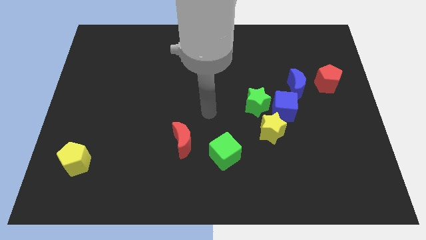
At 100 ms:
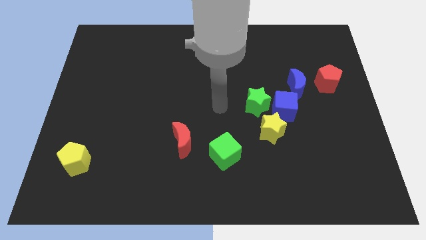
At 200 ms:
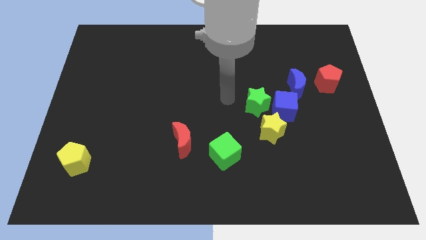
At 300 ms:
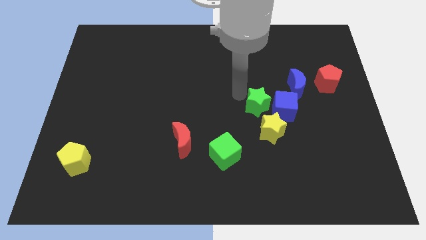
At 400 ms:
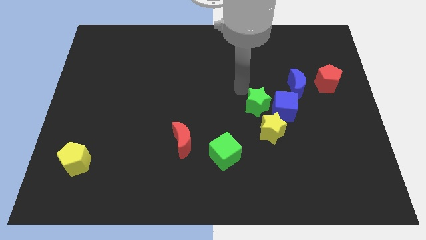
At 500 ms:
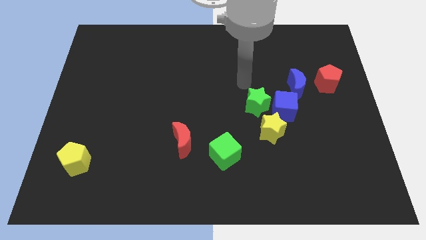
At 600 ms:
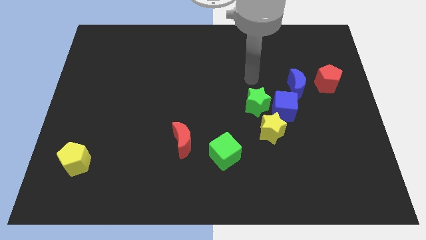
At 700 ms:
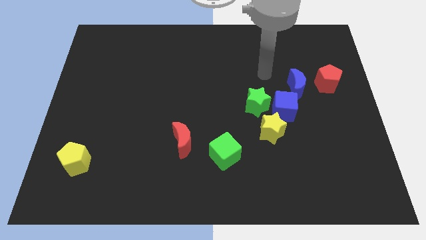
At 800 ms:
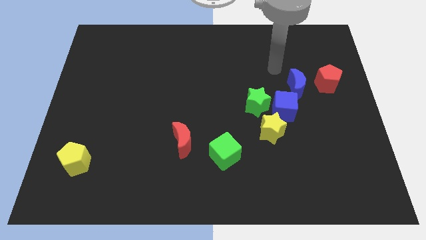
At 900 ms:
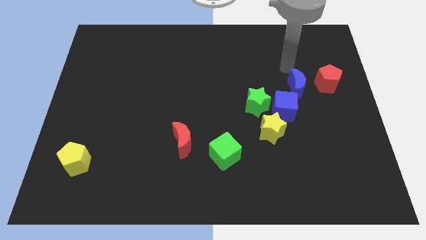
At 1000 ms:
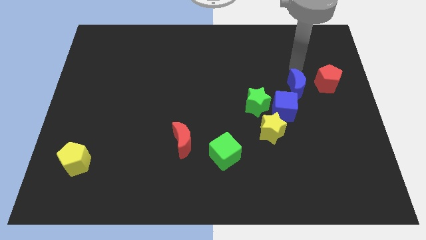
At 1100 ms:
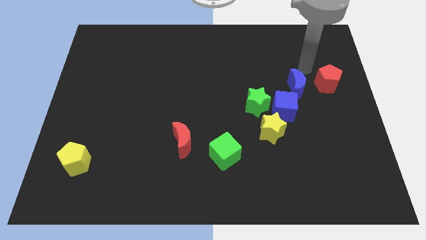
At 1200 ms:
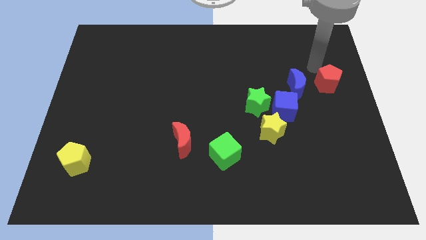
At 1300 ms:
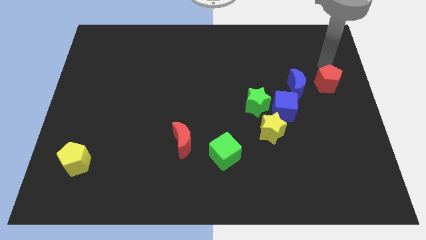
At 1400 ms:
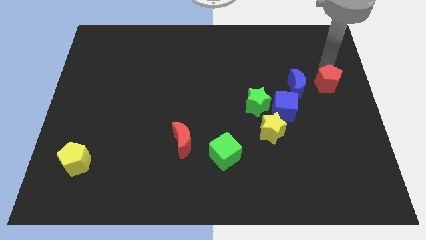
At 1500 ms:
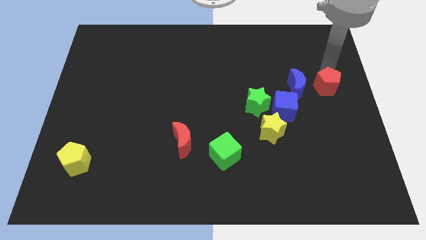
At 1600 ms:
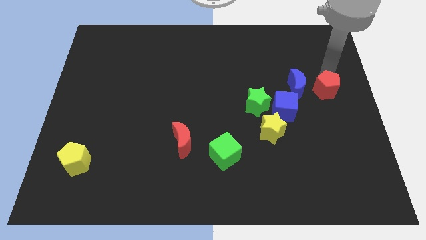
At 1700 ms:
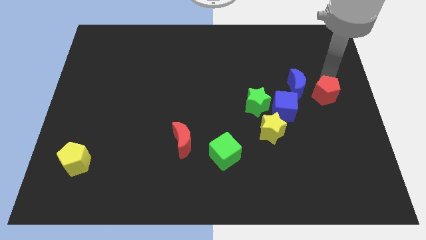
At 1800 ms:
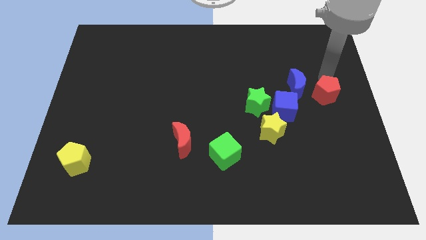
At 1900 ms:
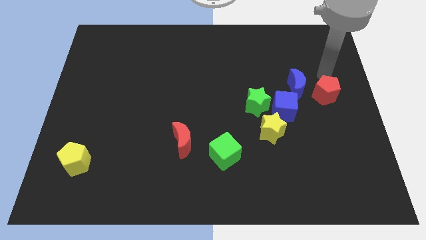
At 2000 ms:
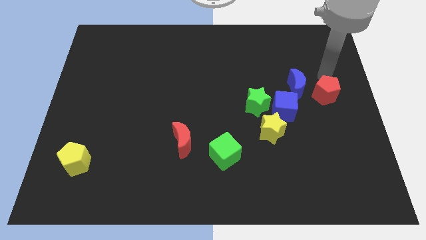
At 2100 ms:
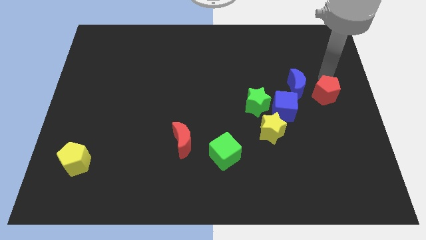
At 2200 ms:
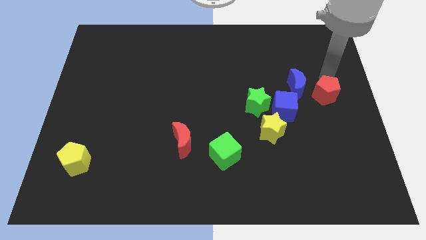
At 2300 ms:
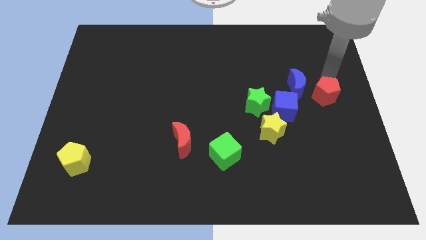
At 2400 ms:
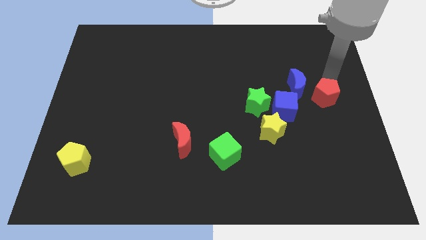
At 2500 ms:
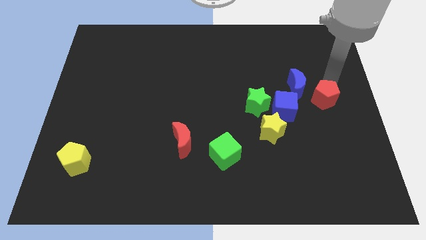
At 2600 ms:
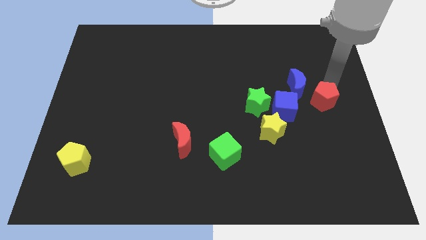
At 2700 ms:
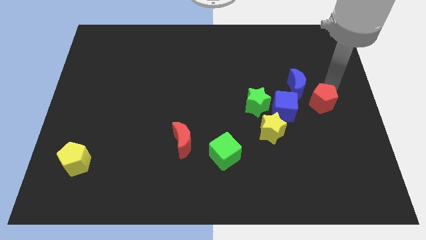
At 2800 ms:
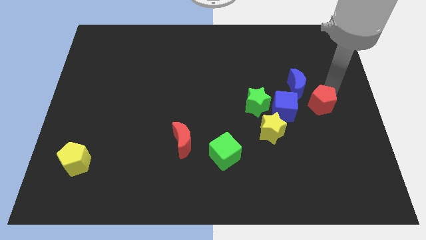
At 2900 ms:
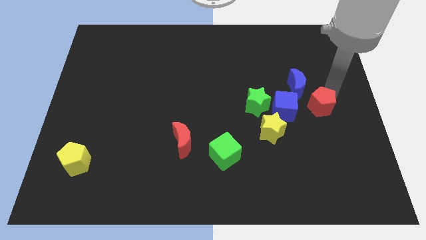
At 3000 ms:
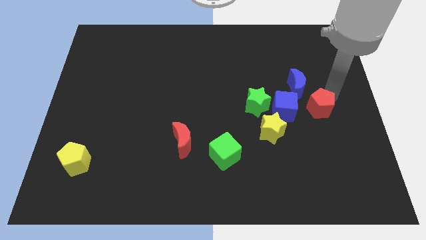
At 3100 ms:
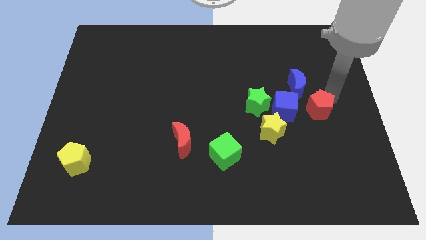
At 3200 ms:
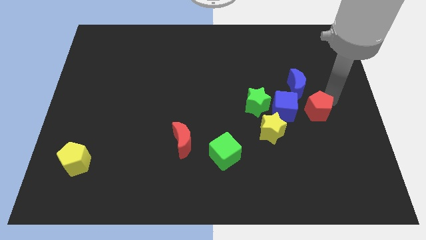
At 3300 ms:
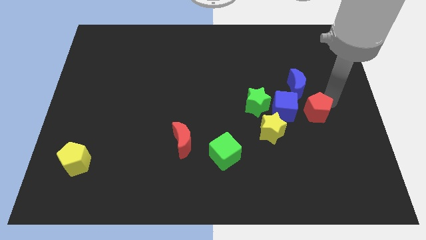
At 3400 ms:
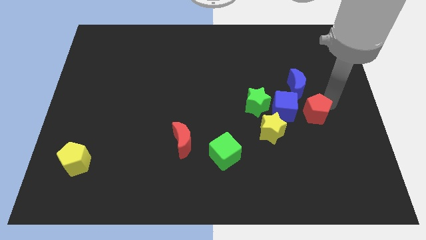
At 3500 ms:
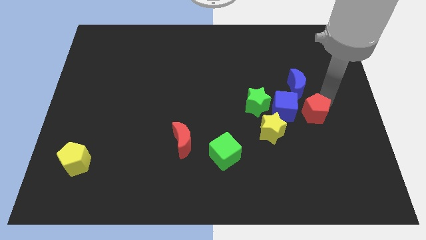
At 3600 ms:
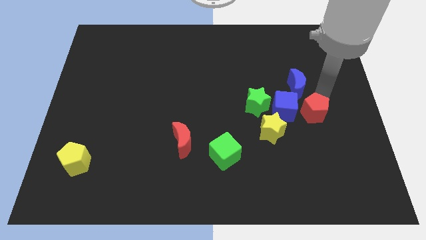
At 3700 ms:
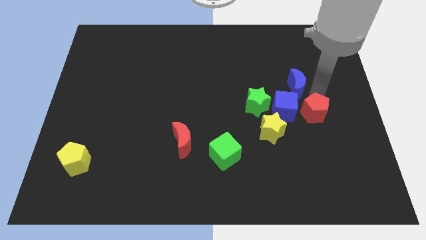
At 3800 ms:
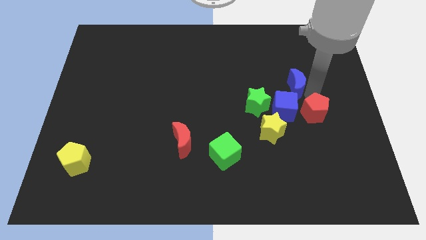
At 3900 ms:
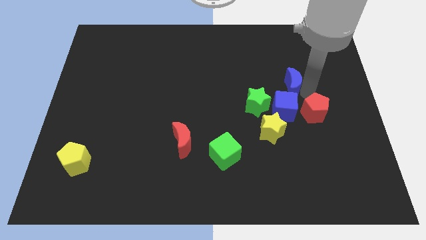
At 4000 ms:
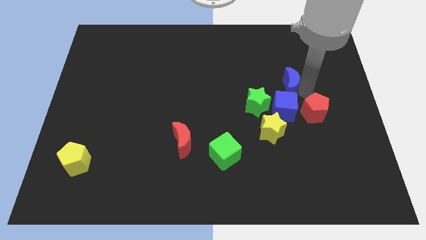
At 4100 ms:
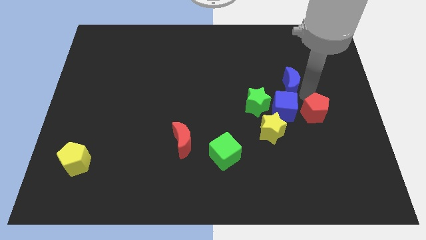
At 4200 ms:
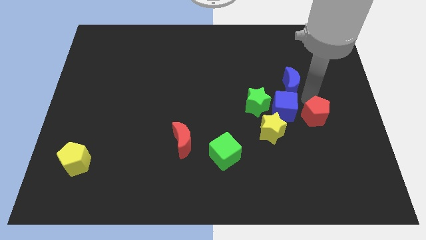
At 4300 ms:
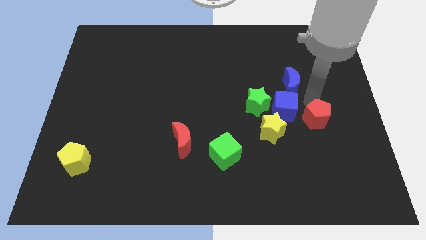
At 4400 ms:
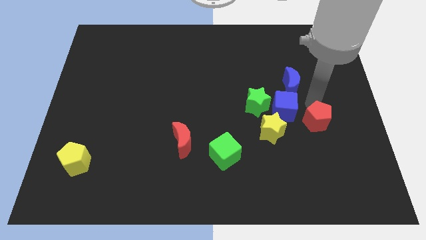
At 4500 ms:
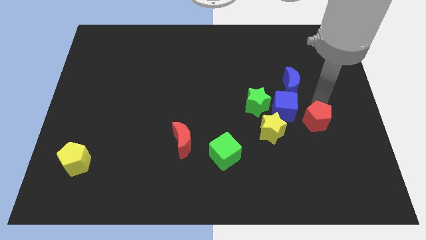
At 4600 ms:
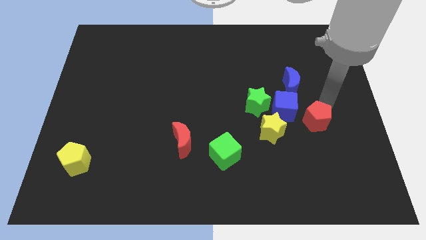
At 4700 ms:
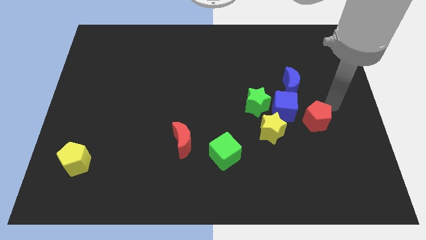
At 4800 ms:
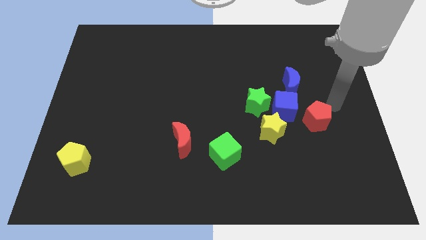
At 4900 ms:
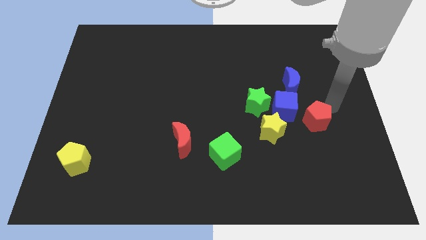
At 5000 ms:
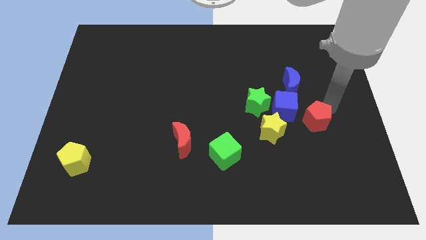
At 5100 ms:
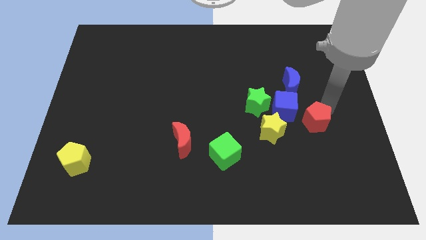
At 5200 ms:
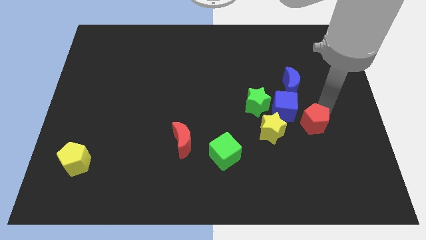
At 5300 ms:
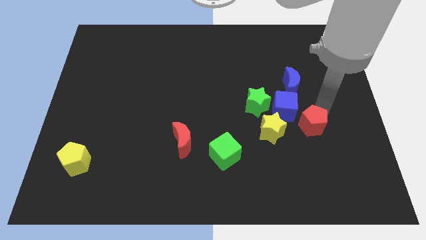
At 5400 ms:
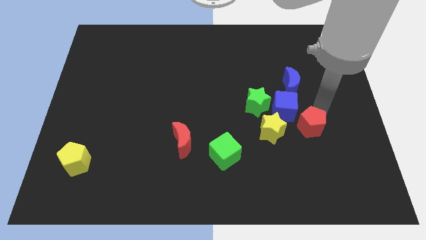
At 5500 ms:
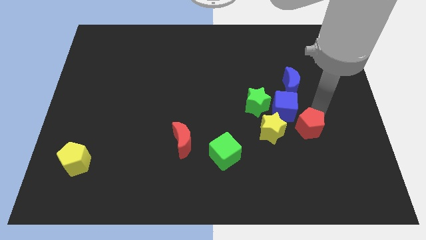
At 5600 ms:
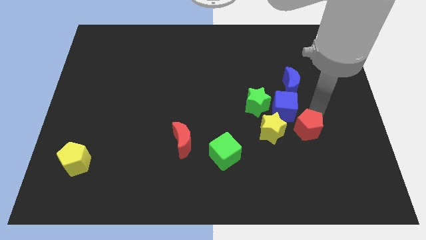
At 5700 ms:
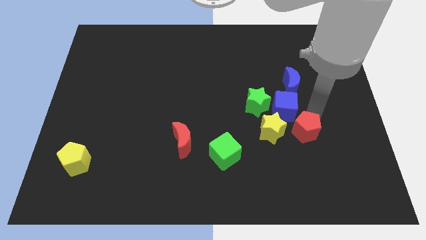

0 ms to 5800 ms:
move the red pentagon to the bottom right side of the green star

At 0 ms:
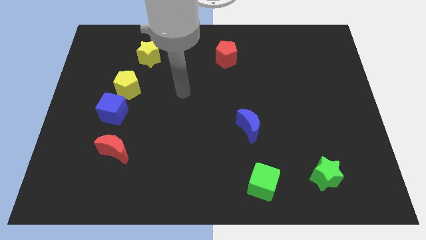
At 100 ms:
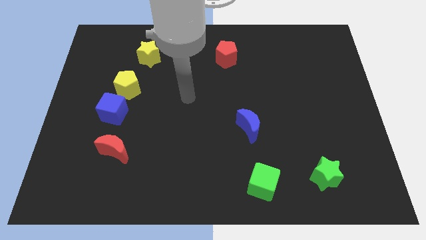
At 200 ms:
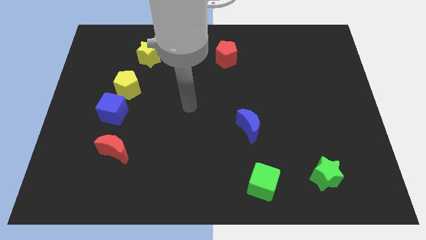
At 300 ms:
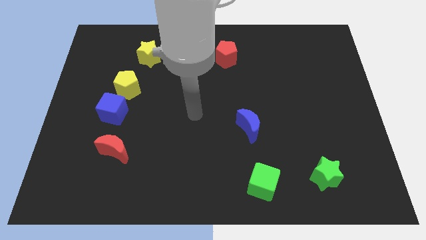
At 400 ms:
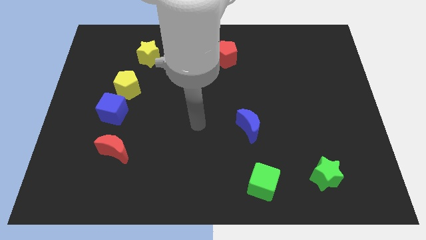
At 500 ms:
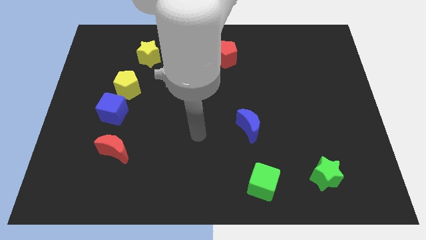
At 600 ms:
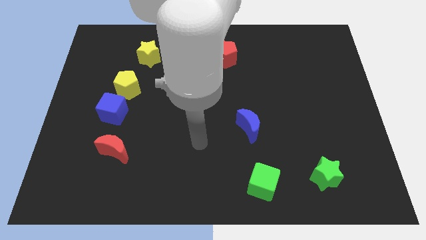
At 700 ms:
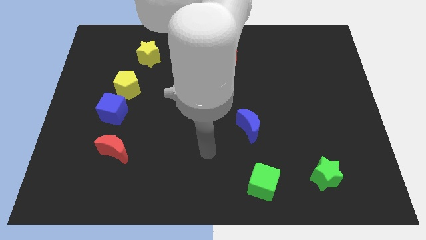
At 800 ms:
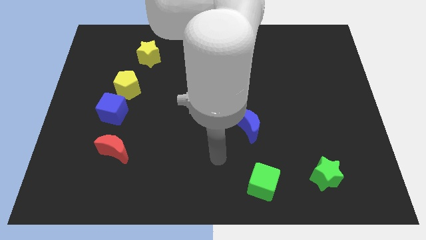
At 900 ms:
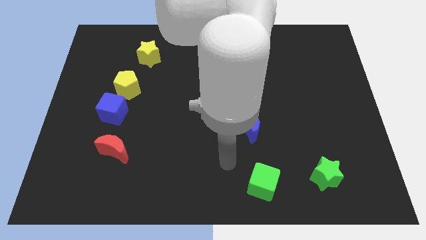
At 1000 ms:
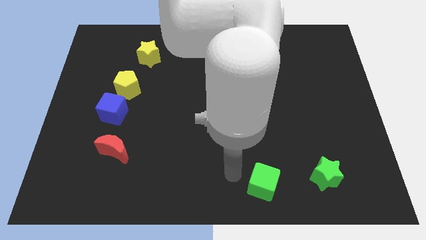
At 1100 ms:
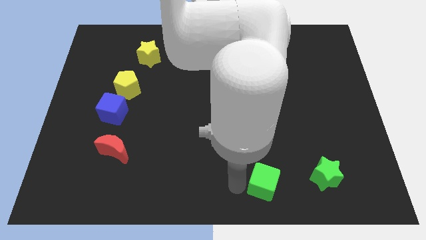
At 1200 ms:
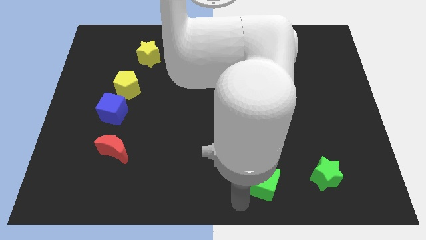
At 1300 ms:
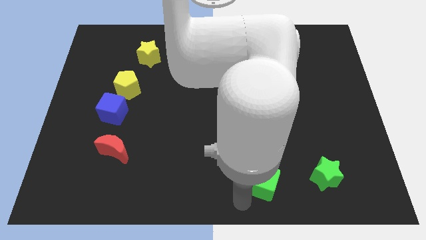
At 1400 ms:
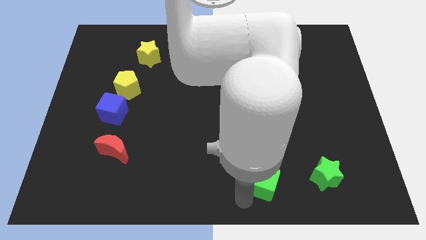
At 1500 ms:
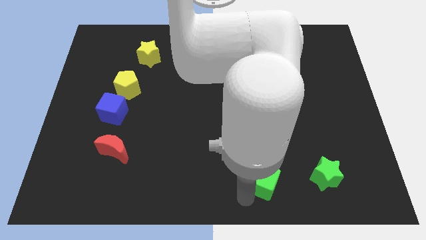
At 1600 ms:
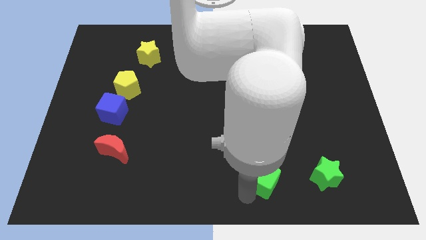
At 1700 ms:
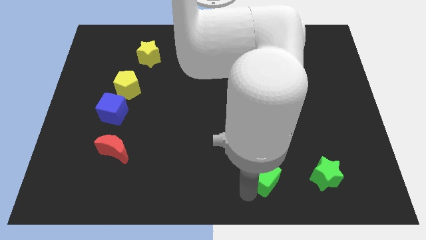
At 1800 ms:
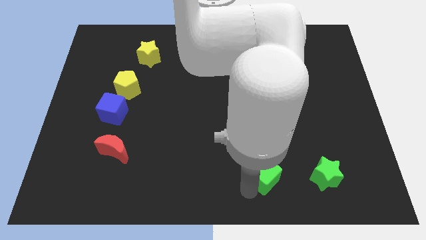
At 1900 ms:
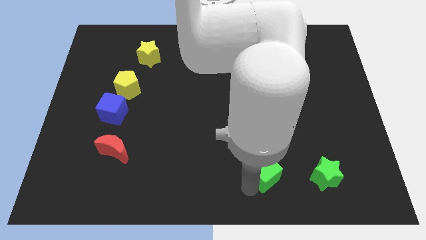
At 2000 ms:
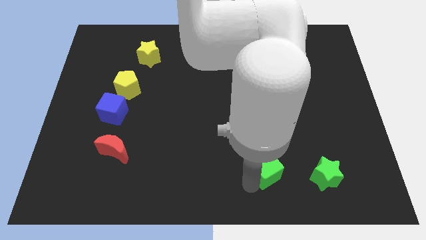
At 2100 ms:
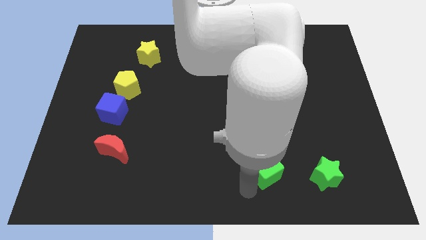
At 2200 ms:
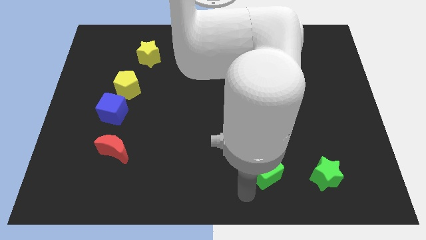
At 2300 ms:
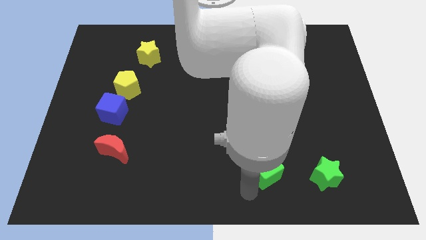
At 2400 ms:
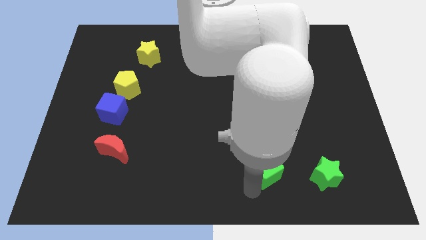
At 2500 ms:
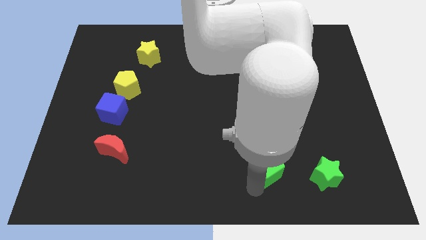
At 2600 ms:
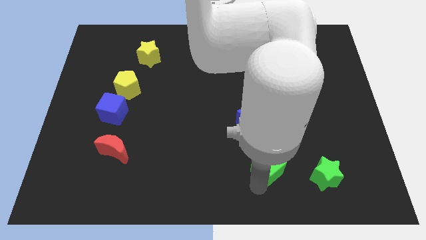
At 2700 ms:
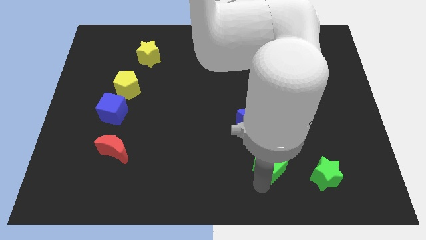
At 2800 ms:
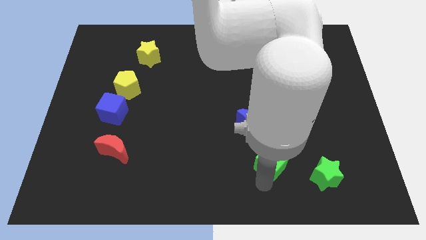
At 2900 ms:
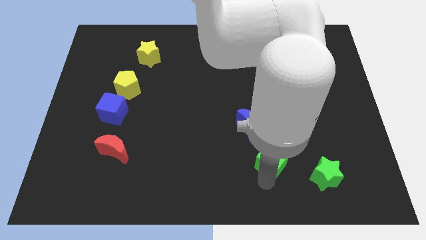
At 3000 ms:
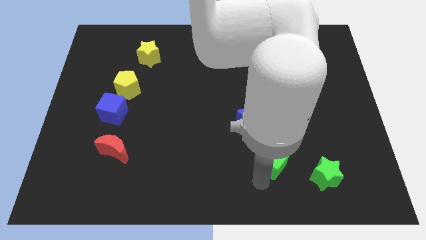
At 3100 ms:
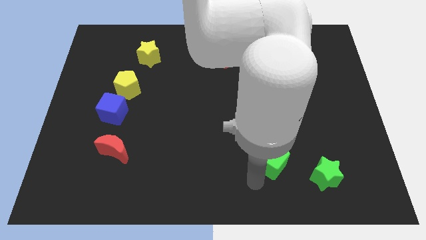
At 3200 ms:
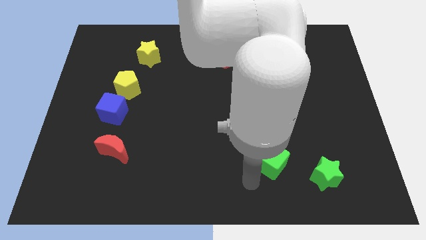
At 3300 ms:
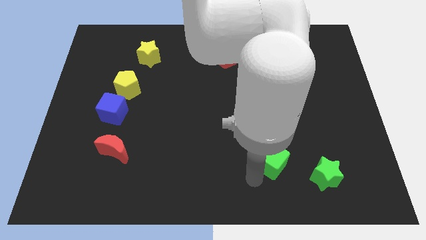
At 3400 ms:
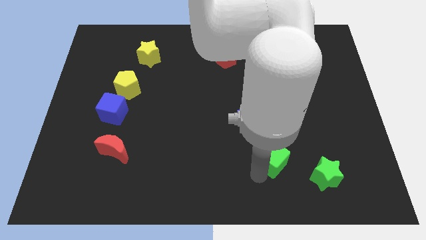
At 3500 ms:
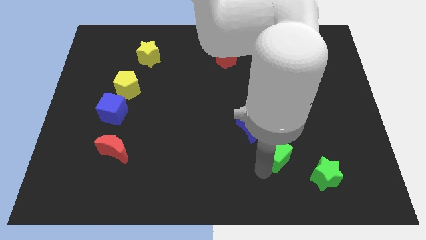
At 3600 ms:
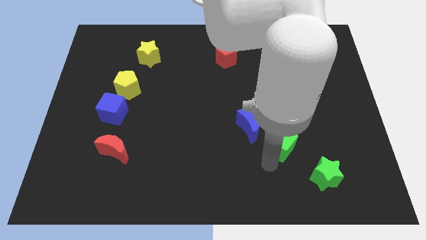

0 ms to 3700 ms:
push the green cube to the right side of the blue moon
